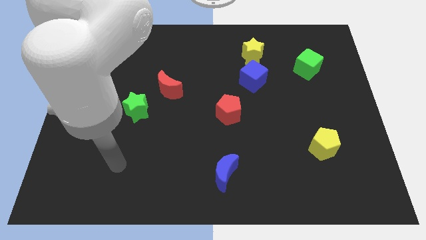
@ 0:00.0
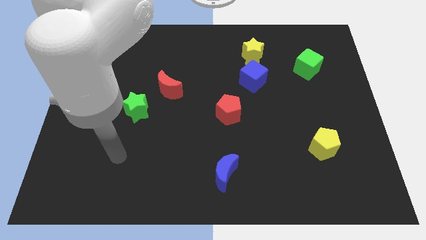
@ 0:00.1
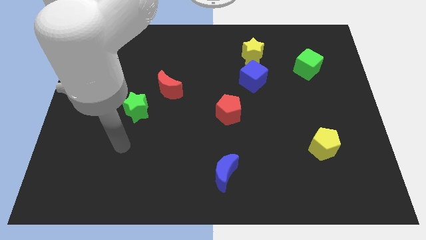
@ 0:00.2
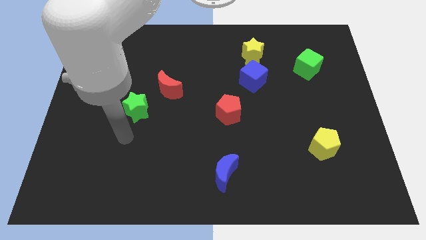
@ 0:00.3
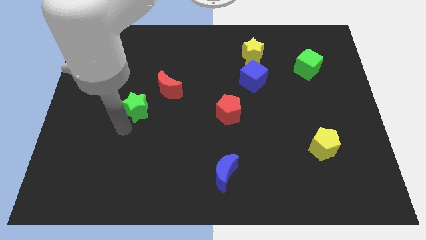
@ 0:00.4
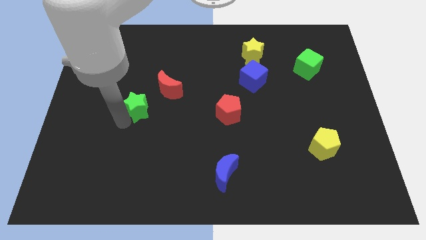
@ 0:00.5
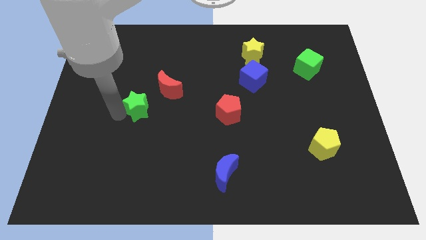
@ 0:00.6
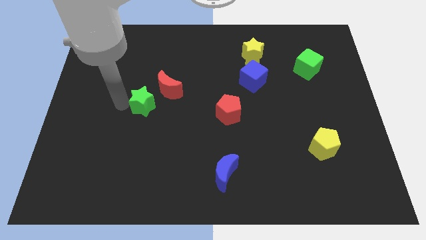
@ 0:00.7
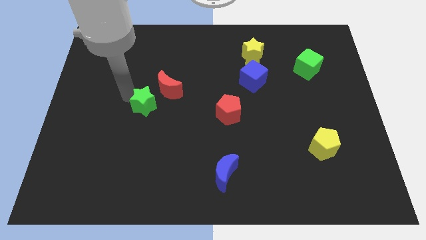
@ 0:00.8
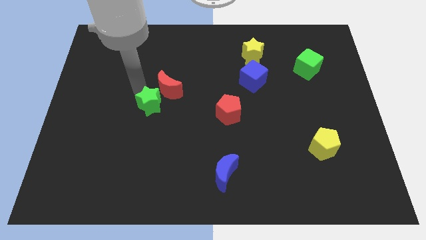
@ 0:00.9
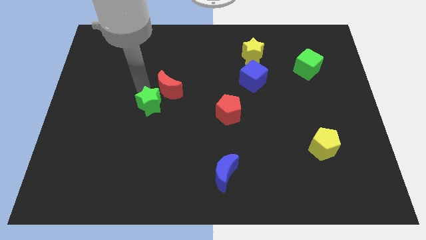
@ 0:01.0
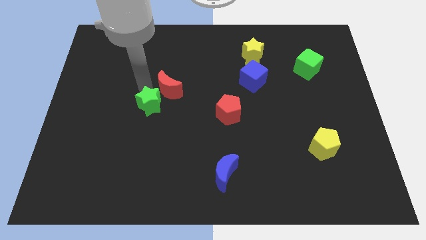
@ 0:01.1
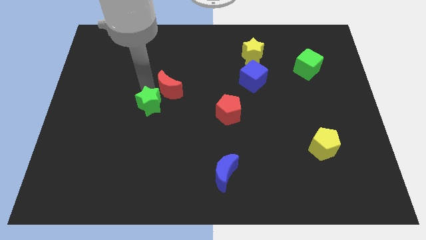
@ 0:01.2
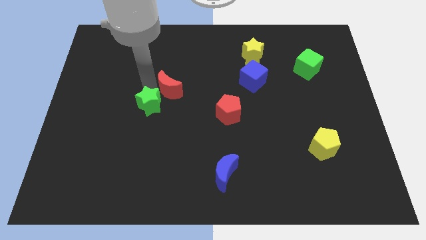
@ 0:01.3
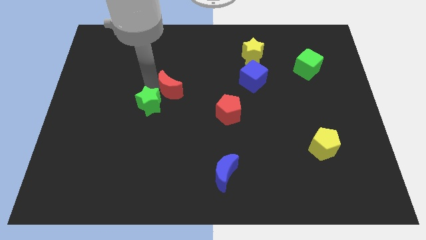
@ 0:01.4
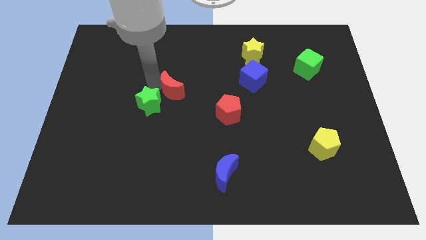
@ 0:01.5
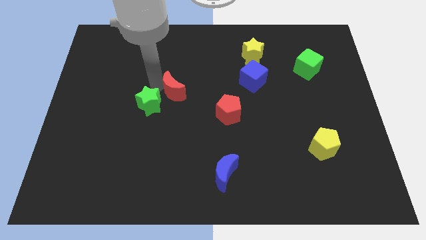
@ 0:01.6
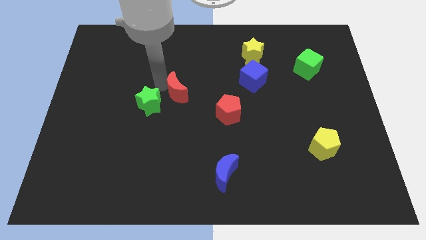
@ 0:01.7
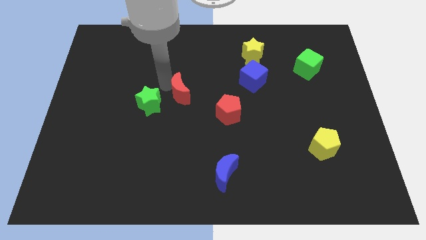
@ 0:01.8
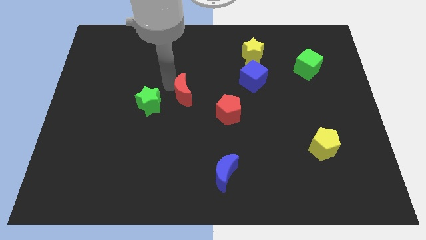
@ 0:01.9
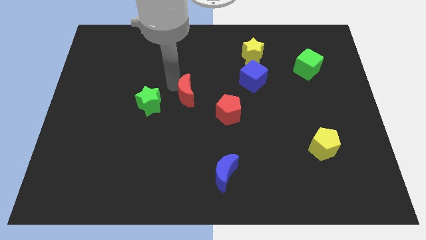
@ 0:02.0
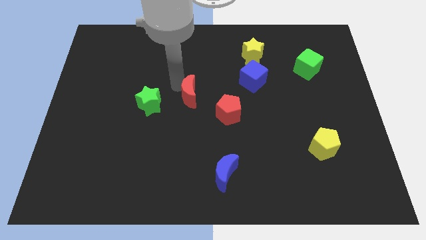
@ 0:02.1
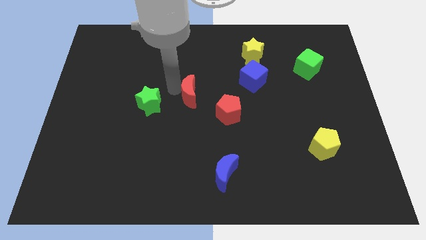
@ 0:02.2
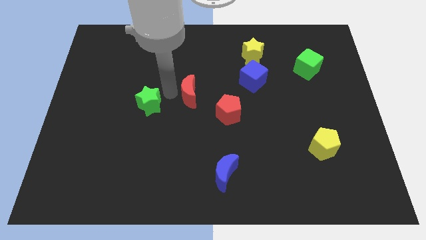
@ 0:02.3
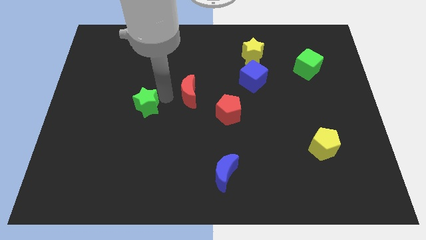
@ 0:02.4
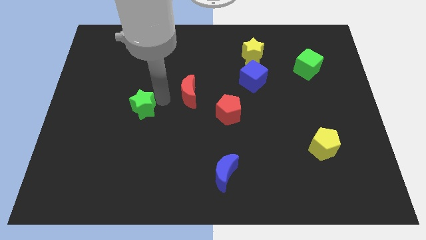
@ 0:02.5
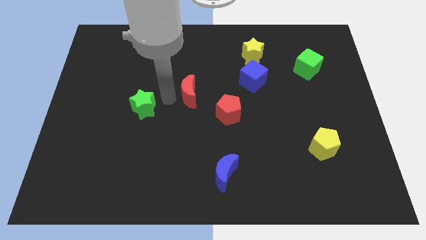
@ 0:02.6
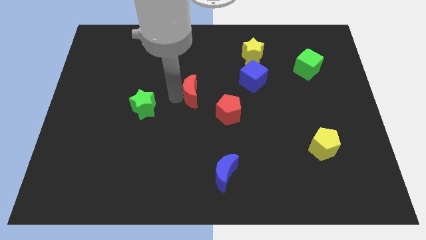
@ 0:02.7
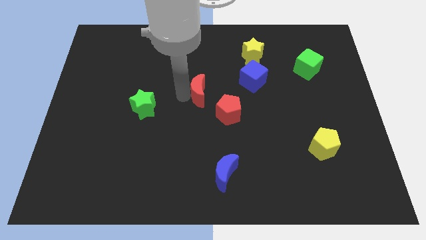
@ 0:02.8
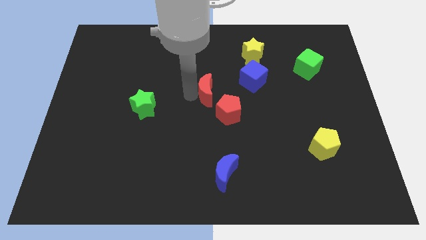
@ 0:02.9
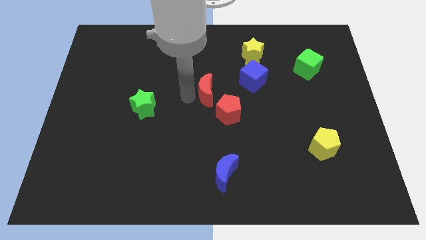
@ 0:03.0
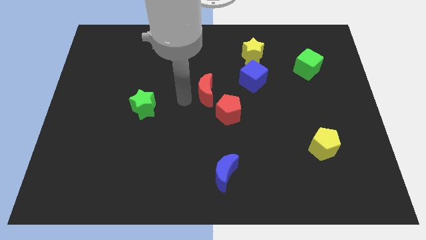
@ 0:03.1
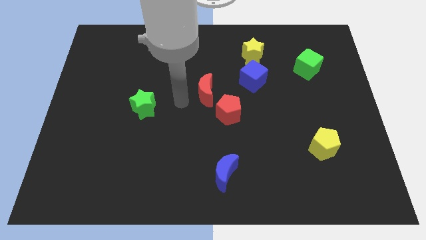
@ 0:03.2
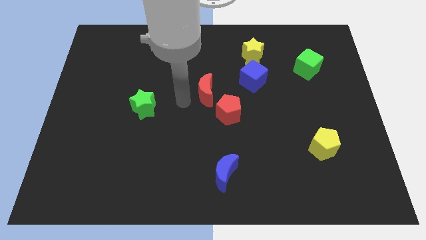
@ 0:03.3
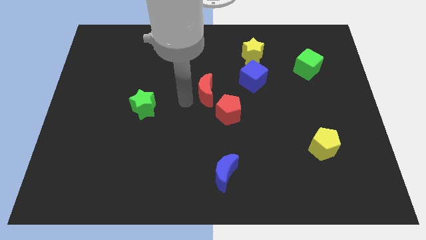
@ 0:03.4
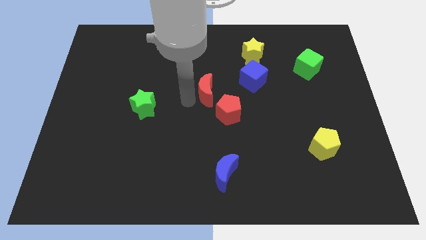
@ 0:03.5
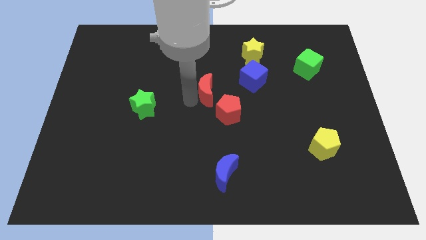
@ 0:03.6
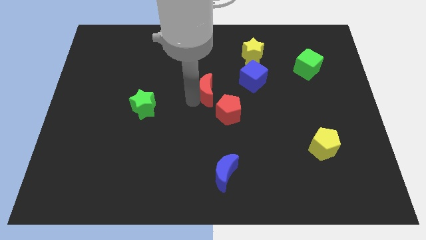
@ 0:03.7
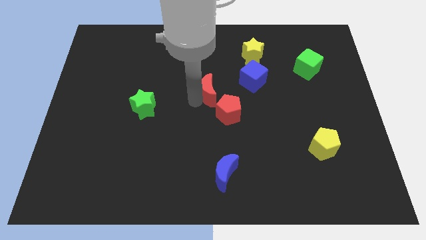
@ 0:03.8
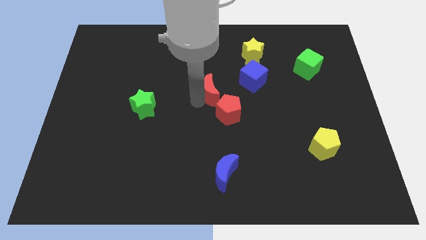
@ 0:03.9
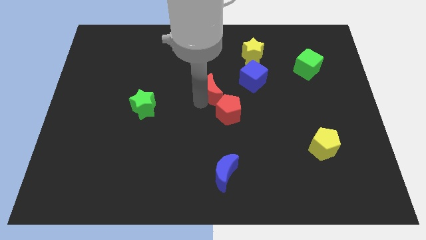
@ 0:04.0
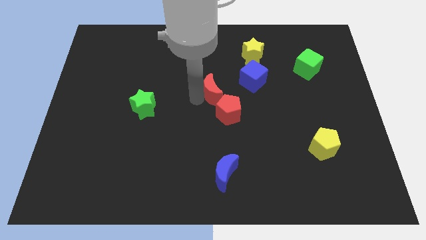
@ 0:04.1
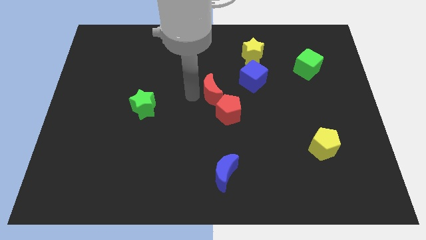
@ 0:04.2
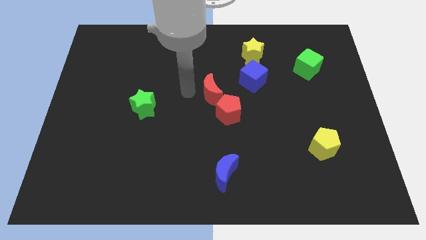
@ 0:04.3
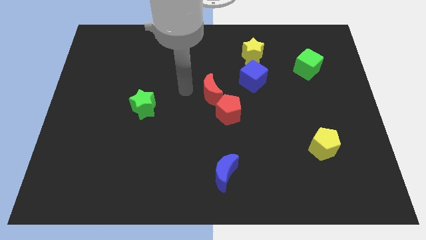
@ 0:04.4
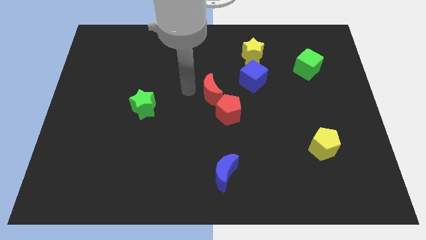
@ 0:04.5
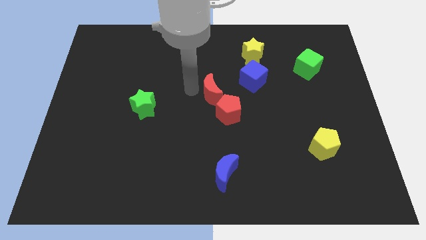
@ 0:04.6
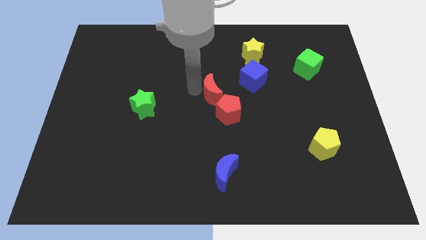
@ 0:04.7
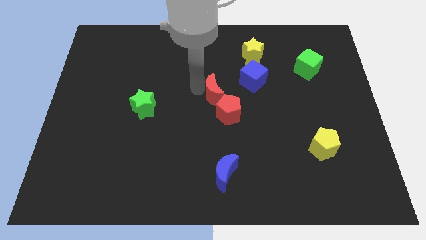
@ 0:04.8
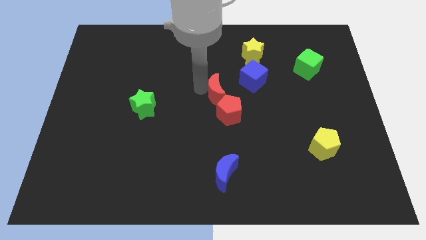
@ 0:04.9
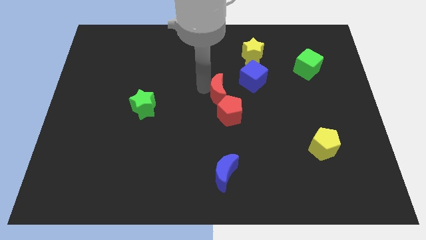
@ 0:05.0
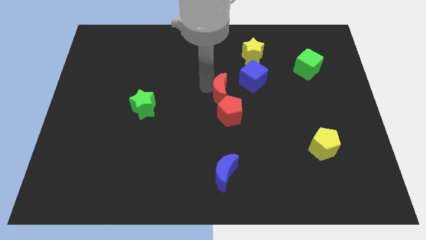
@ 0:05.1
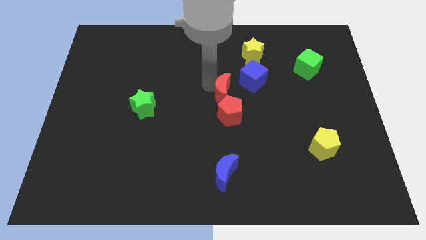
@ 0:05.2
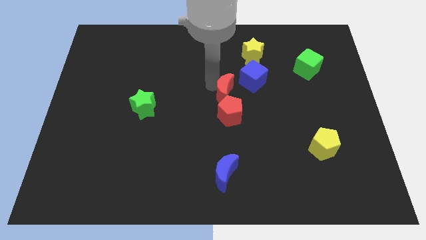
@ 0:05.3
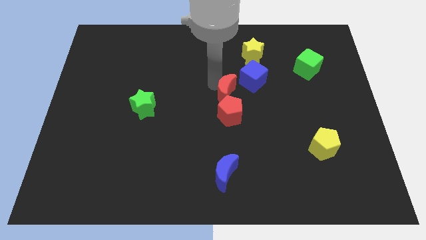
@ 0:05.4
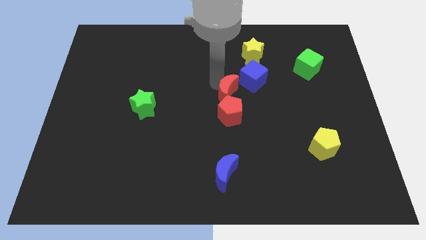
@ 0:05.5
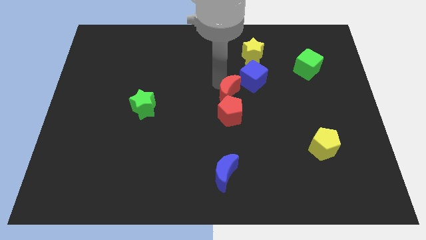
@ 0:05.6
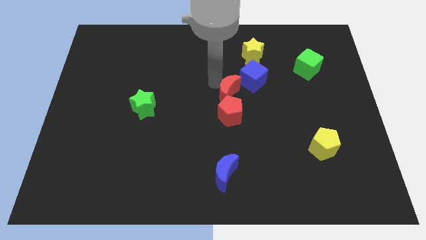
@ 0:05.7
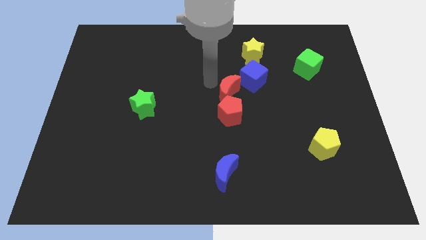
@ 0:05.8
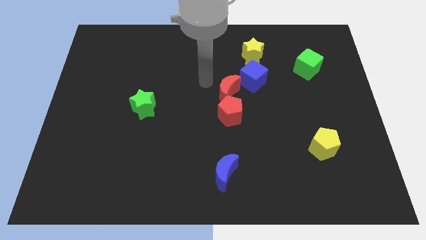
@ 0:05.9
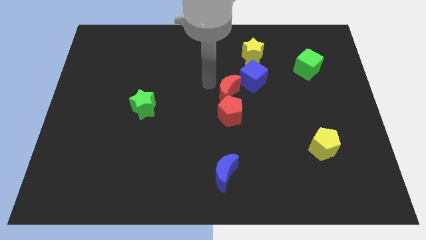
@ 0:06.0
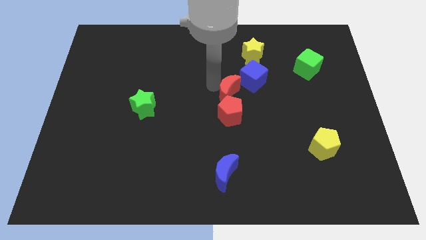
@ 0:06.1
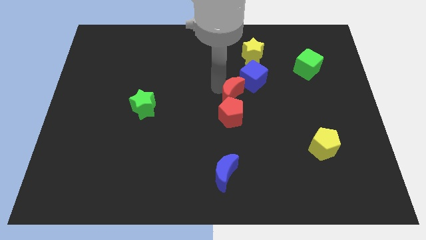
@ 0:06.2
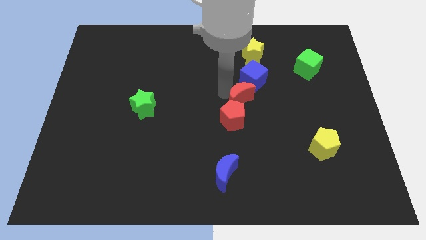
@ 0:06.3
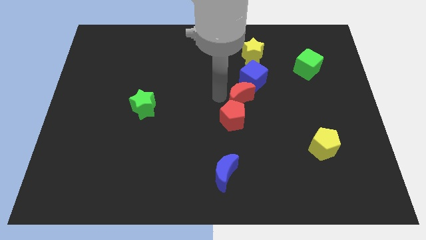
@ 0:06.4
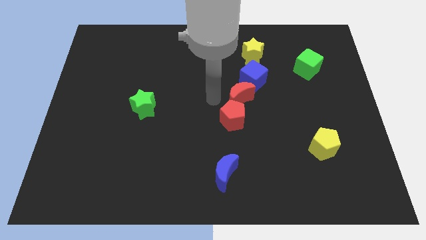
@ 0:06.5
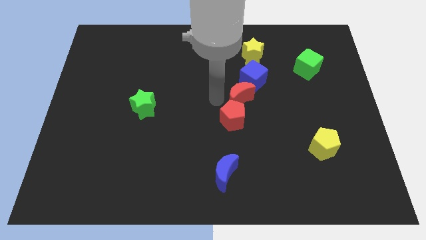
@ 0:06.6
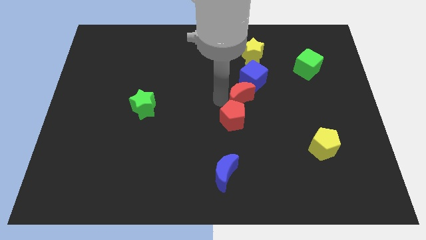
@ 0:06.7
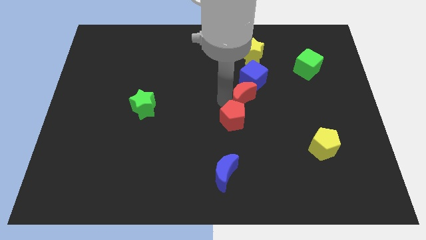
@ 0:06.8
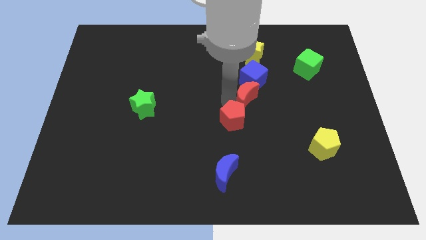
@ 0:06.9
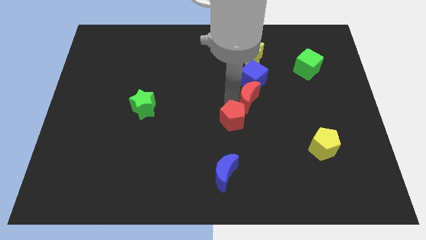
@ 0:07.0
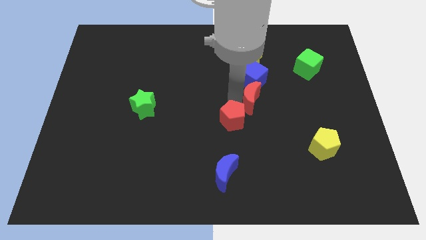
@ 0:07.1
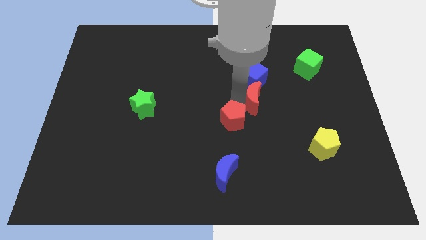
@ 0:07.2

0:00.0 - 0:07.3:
move the red moon to the right

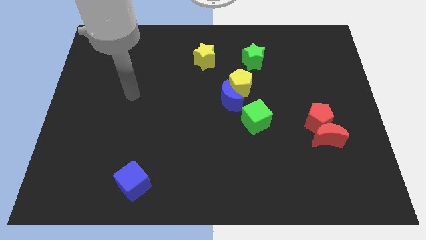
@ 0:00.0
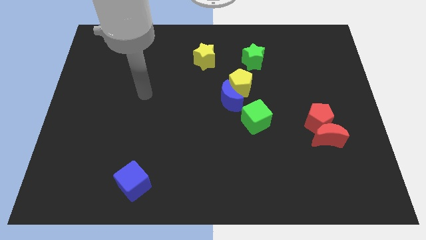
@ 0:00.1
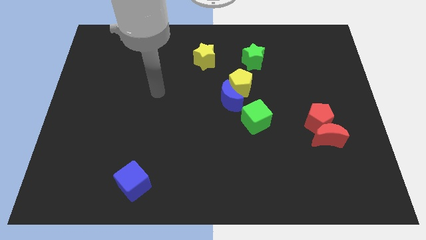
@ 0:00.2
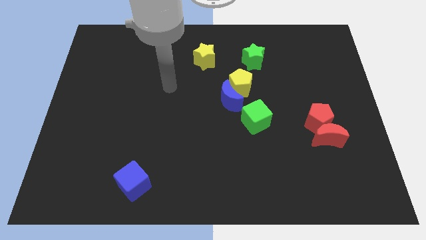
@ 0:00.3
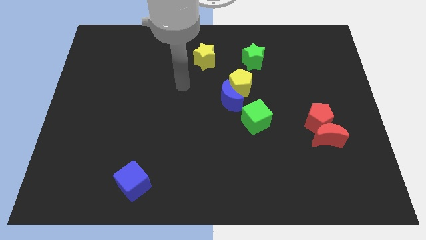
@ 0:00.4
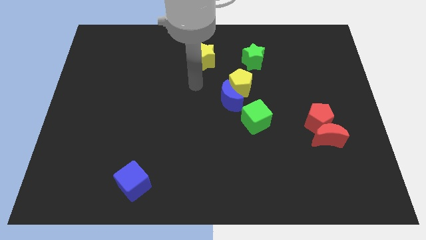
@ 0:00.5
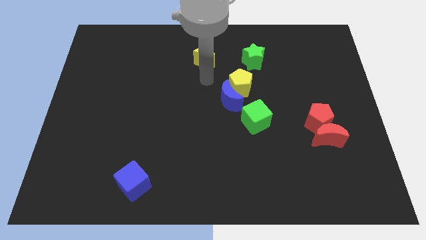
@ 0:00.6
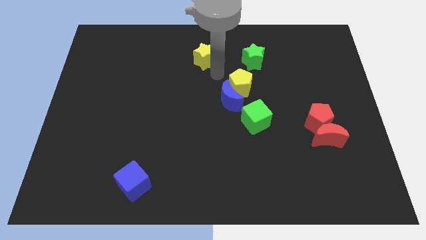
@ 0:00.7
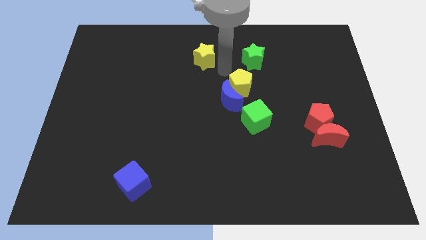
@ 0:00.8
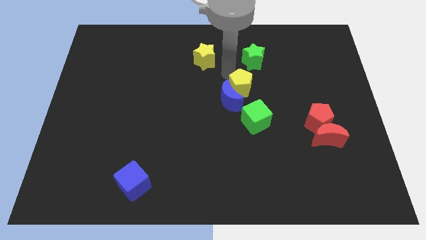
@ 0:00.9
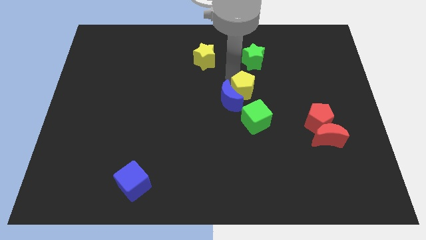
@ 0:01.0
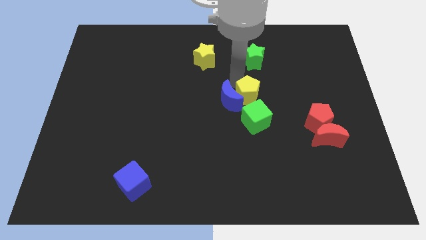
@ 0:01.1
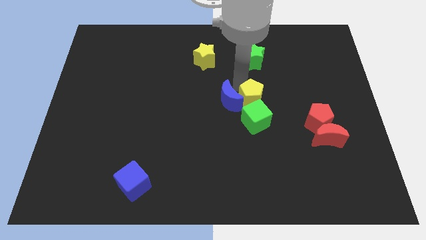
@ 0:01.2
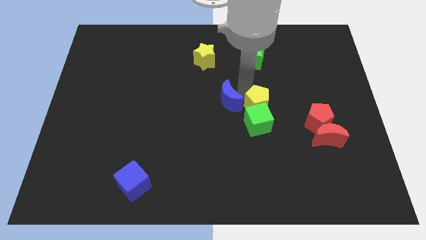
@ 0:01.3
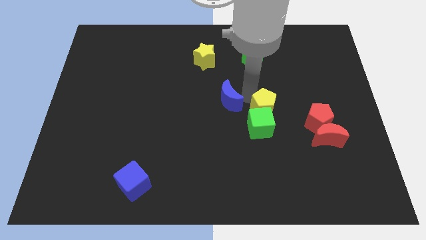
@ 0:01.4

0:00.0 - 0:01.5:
slightly move the yellow pentagon downwards and to the right diagonally
